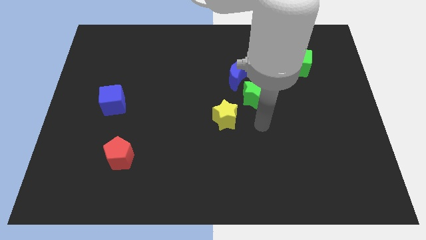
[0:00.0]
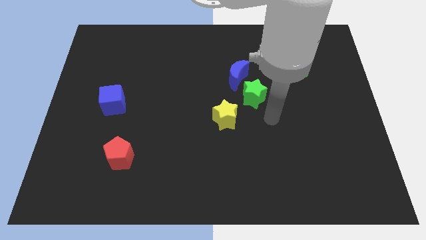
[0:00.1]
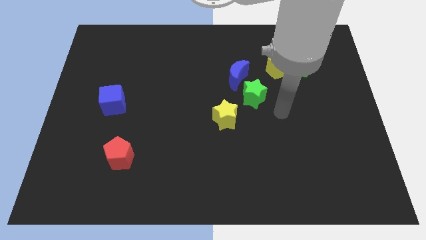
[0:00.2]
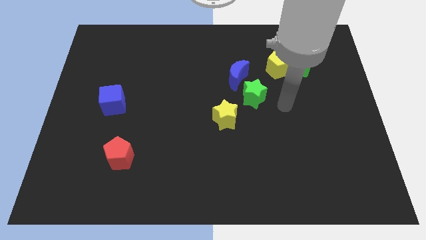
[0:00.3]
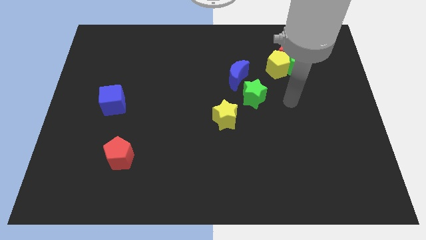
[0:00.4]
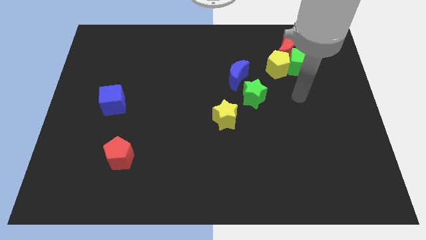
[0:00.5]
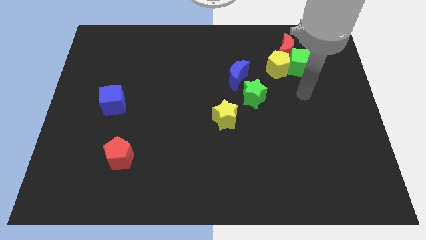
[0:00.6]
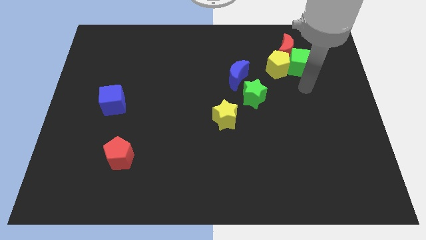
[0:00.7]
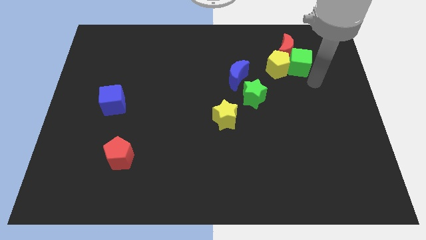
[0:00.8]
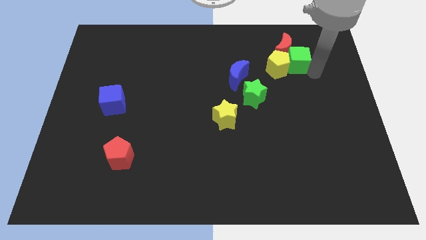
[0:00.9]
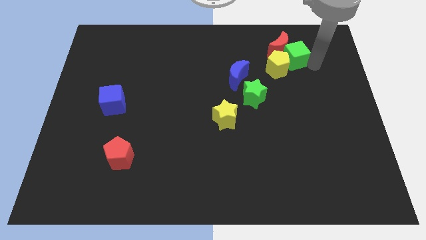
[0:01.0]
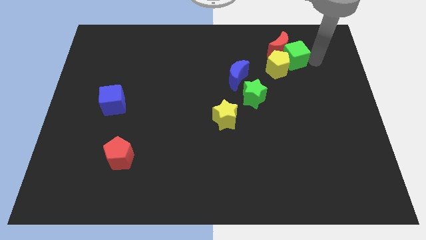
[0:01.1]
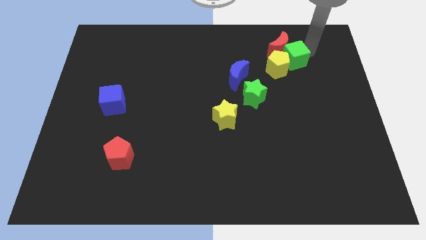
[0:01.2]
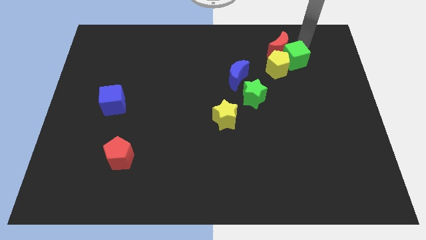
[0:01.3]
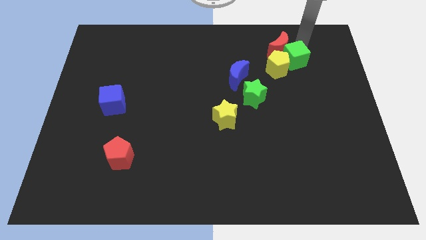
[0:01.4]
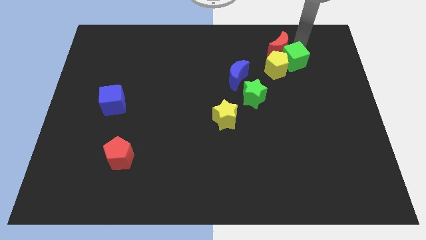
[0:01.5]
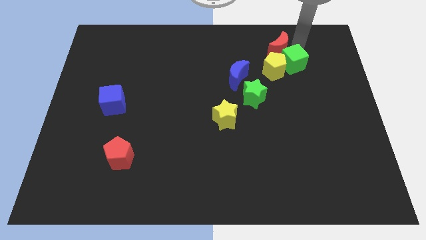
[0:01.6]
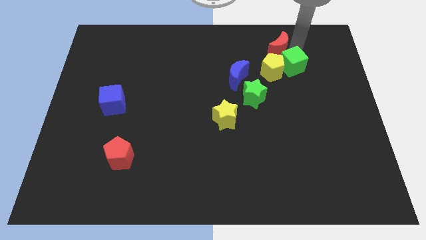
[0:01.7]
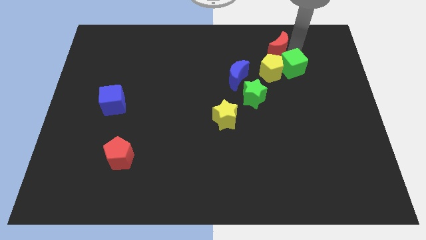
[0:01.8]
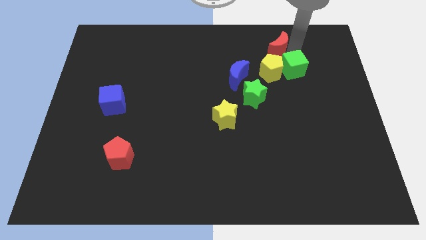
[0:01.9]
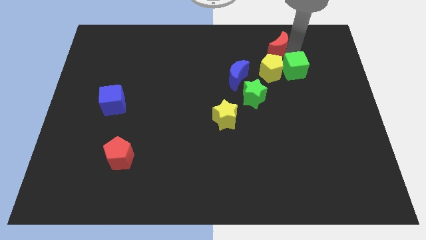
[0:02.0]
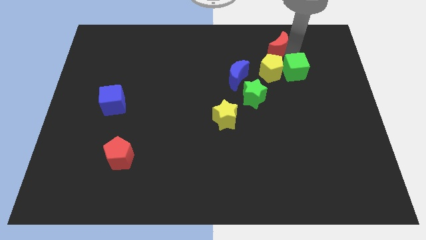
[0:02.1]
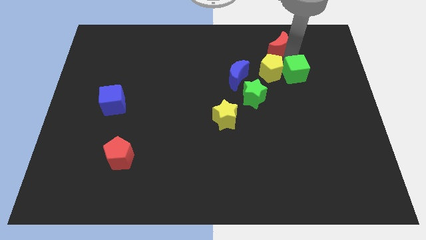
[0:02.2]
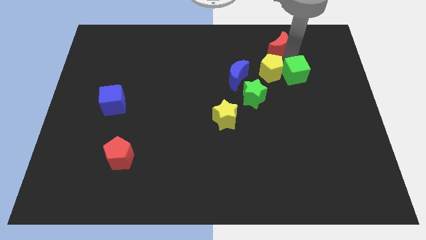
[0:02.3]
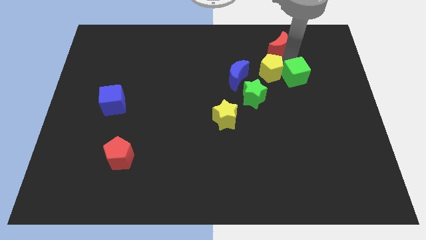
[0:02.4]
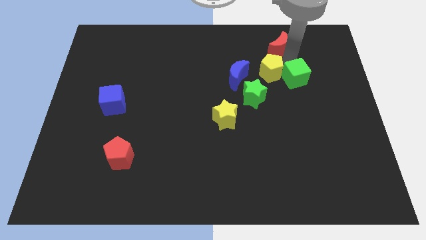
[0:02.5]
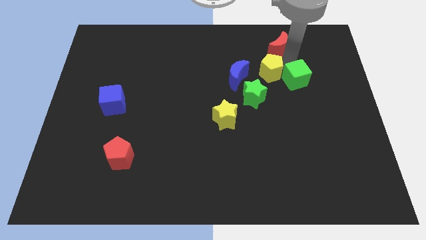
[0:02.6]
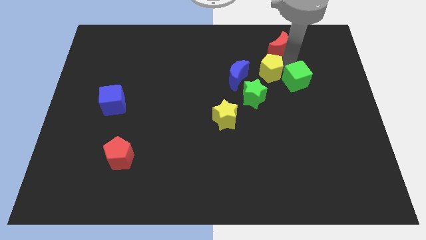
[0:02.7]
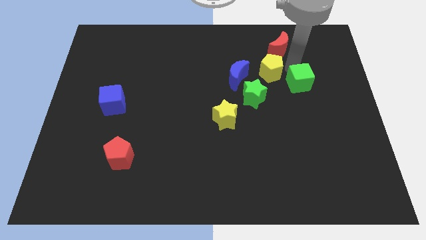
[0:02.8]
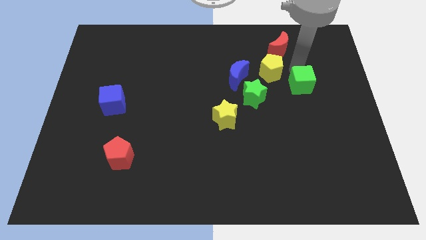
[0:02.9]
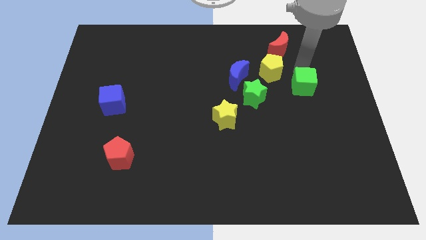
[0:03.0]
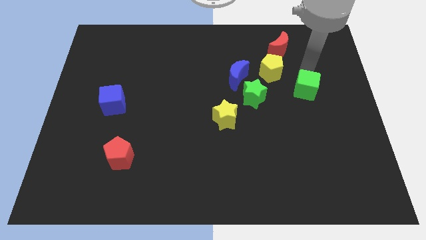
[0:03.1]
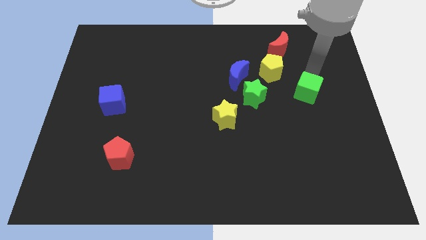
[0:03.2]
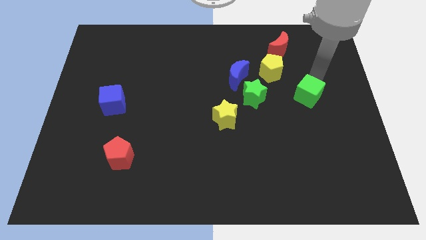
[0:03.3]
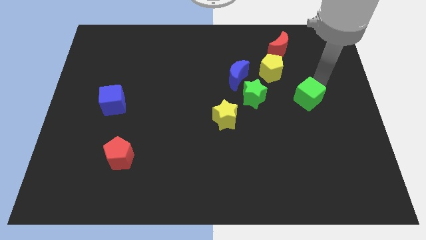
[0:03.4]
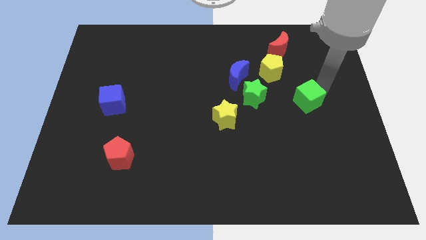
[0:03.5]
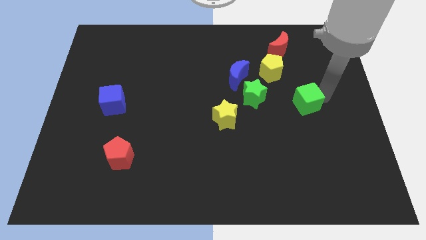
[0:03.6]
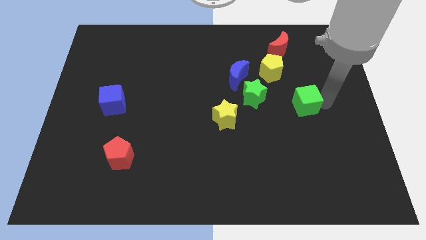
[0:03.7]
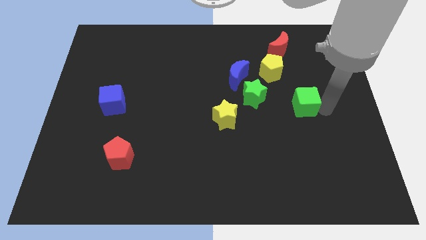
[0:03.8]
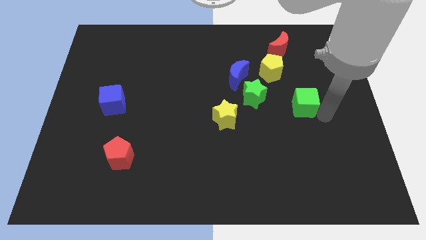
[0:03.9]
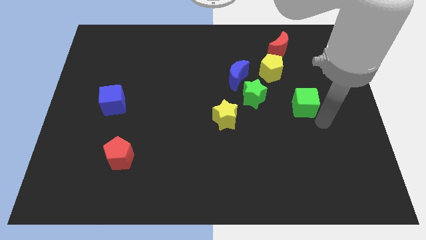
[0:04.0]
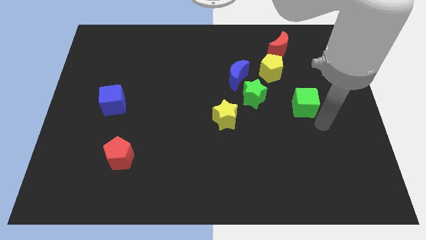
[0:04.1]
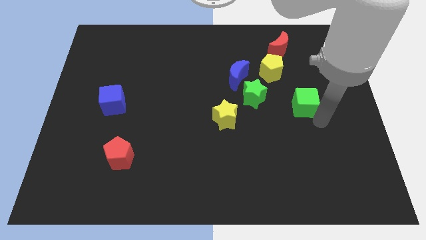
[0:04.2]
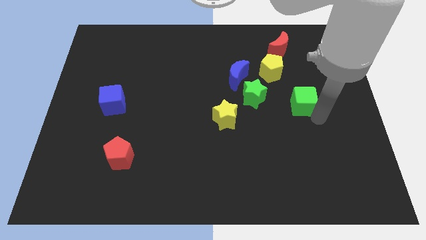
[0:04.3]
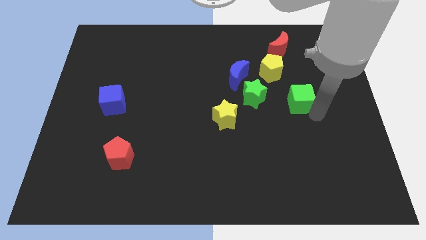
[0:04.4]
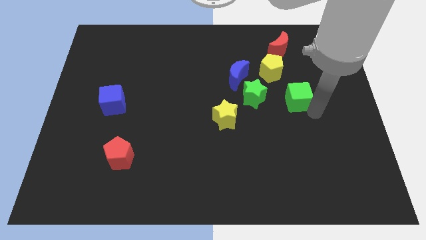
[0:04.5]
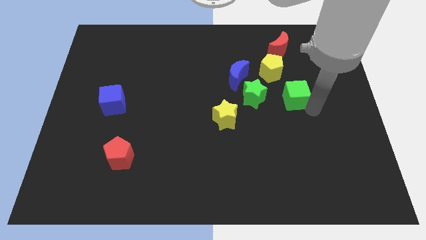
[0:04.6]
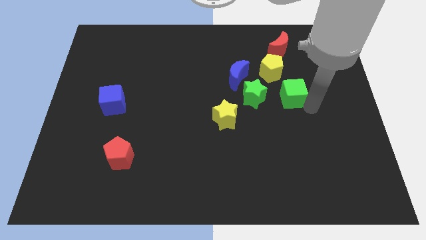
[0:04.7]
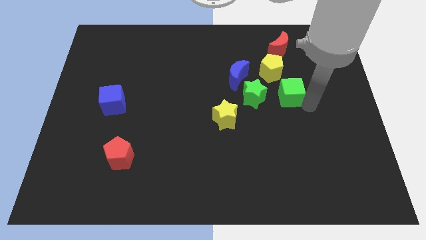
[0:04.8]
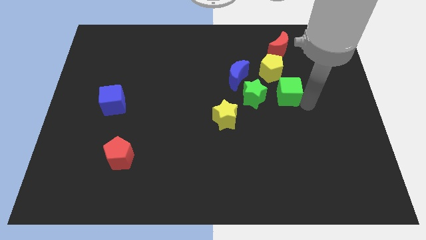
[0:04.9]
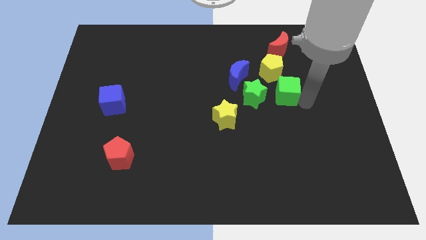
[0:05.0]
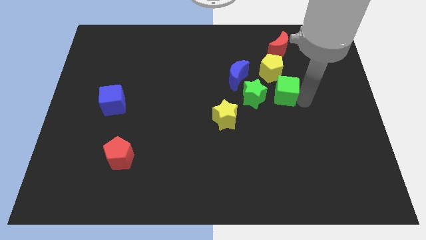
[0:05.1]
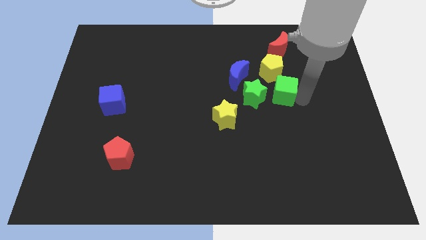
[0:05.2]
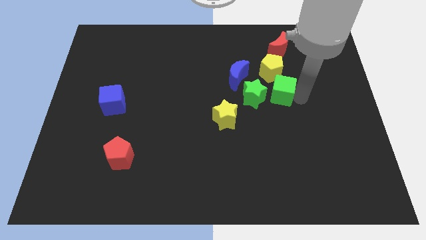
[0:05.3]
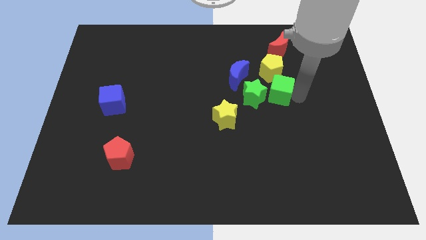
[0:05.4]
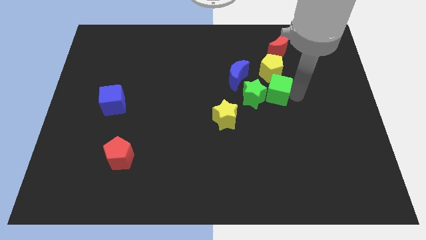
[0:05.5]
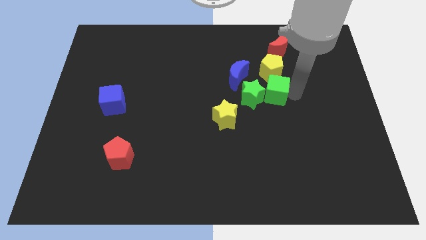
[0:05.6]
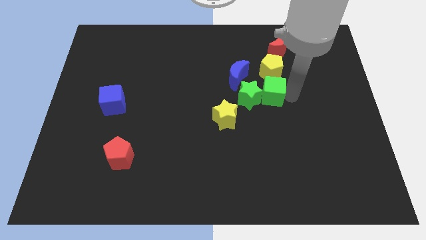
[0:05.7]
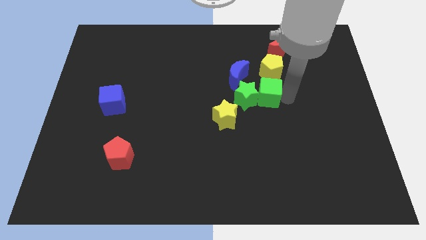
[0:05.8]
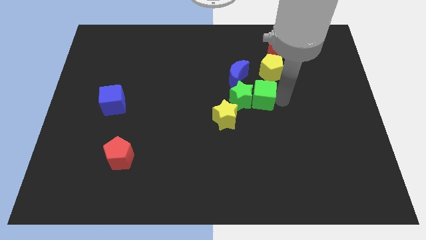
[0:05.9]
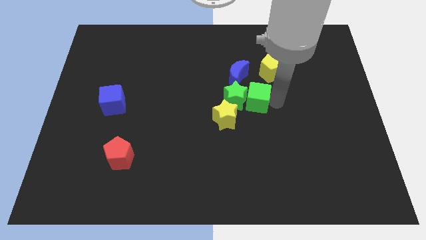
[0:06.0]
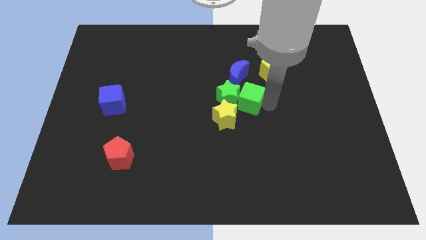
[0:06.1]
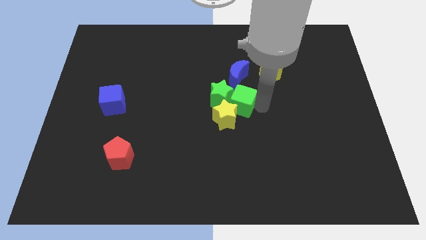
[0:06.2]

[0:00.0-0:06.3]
move the green cube to the top of the yellow star

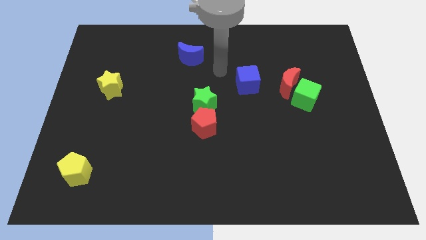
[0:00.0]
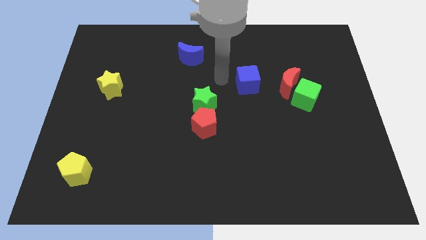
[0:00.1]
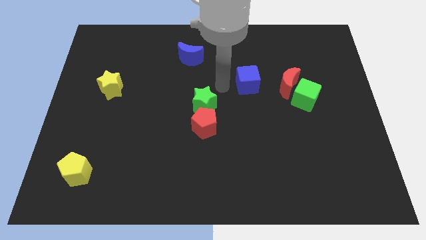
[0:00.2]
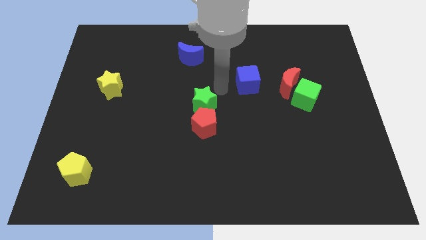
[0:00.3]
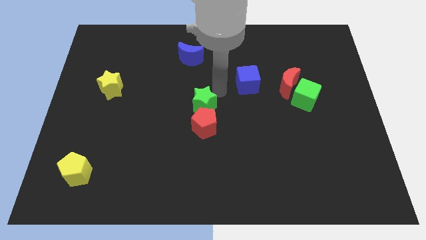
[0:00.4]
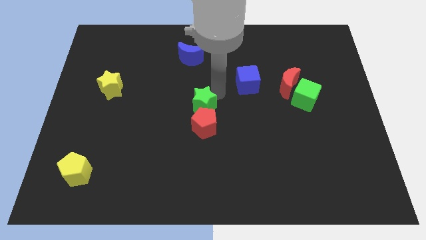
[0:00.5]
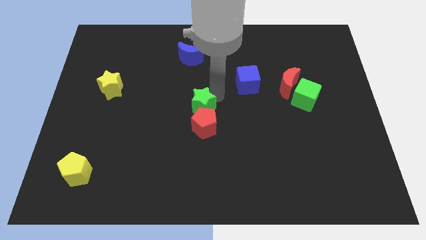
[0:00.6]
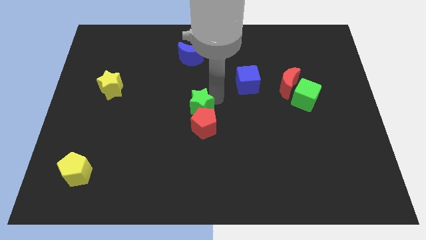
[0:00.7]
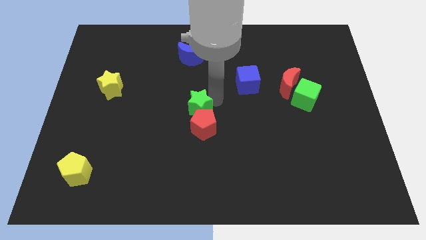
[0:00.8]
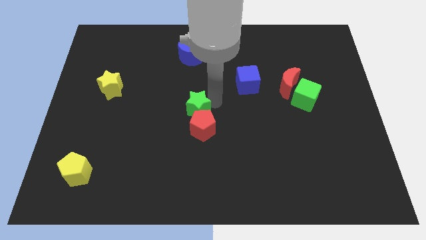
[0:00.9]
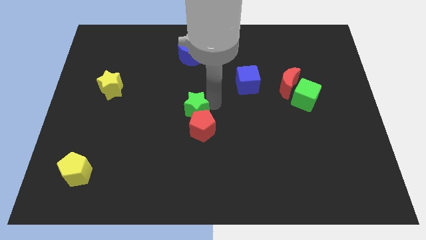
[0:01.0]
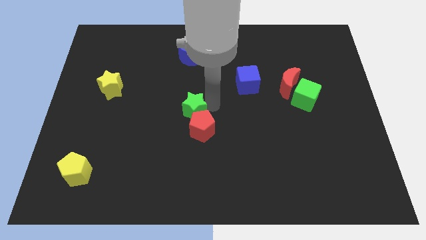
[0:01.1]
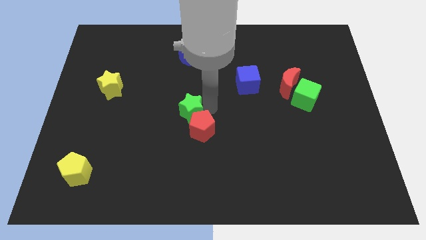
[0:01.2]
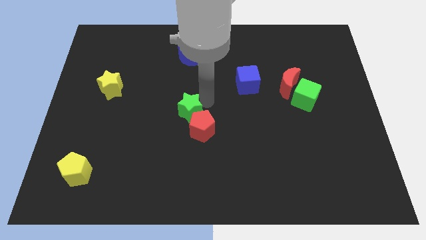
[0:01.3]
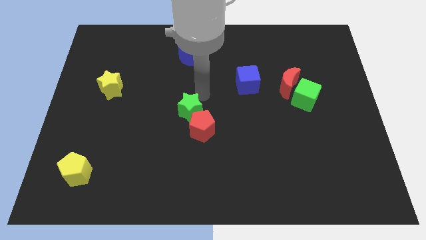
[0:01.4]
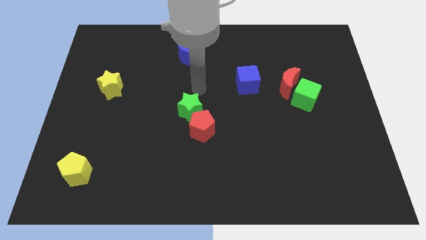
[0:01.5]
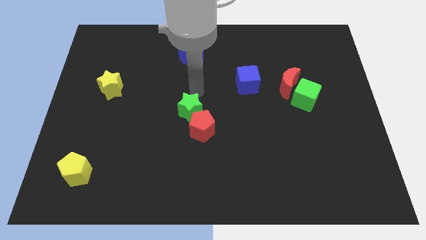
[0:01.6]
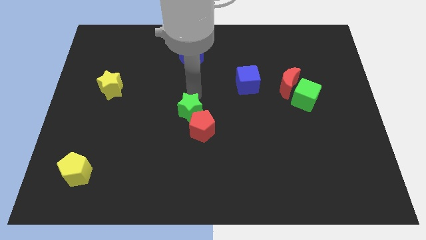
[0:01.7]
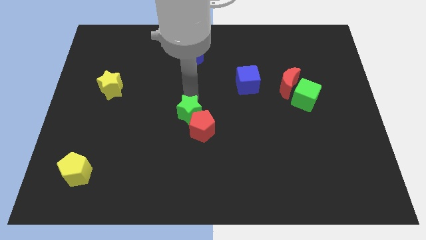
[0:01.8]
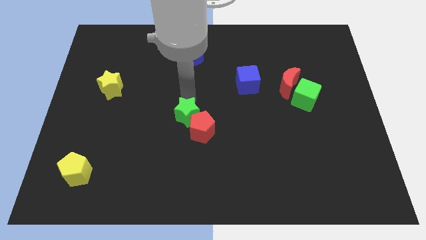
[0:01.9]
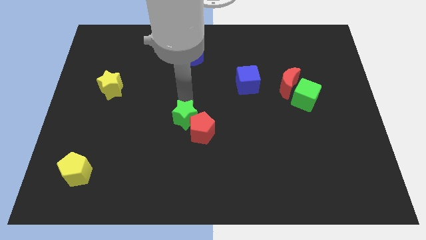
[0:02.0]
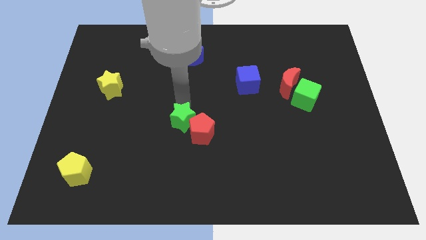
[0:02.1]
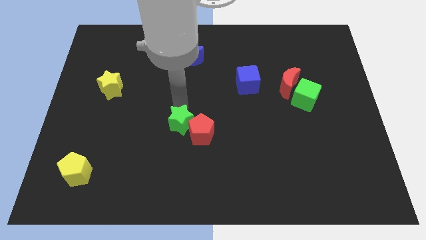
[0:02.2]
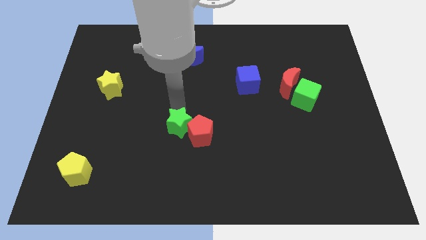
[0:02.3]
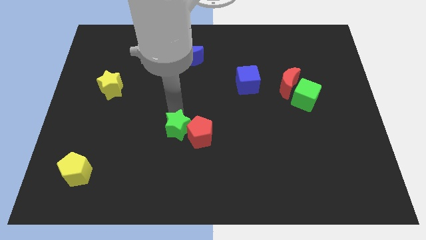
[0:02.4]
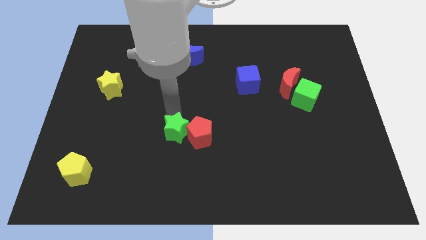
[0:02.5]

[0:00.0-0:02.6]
move the green star diagonally down and to the left of the red pentagon
